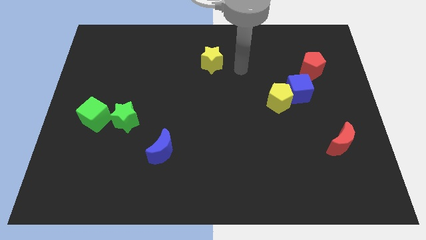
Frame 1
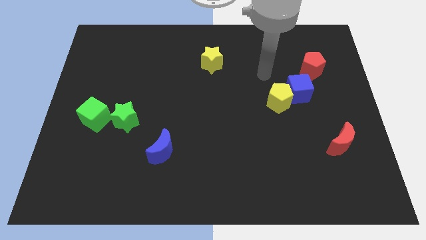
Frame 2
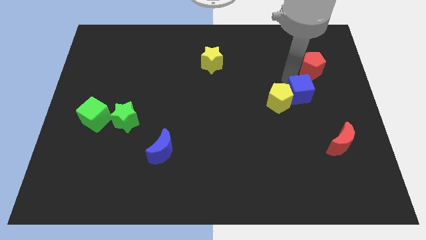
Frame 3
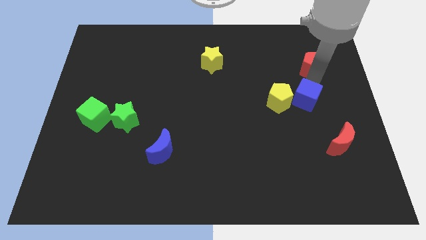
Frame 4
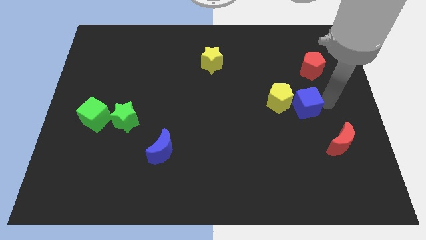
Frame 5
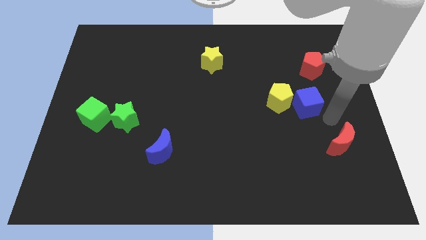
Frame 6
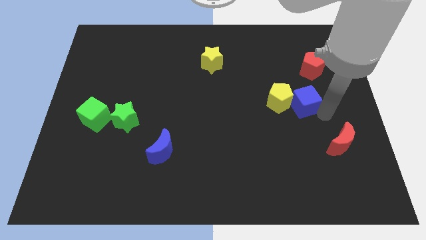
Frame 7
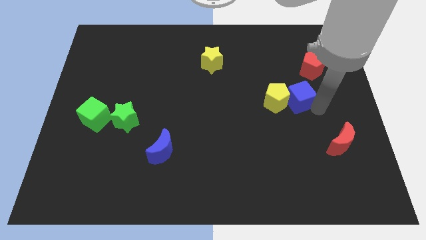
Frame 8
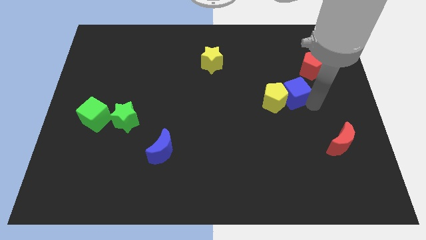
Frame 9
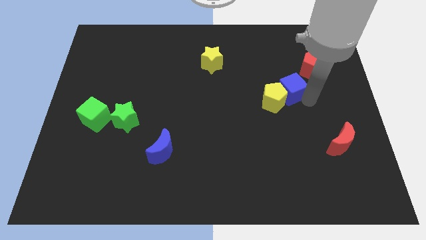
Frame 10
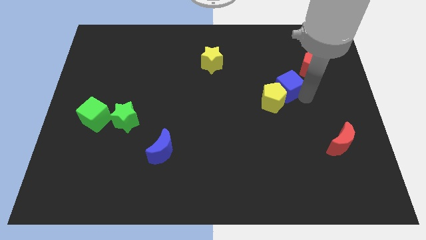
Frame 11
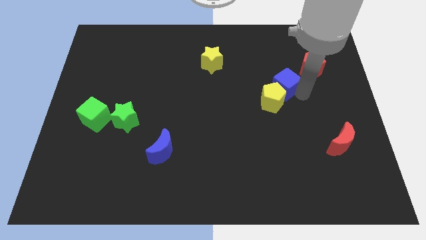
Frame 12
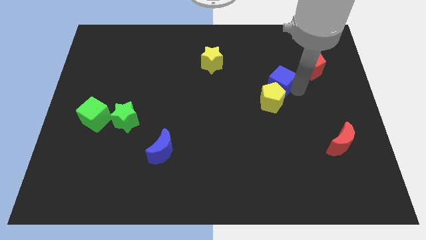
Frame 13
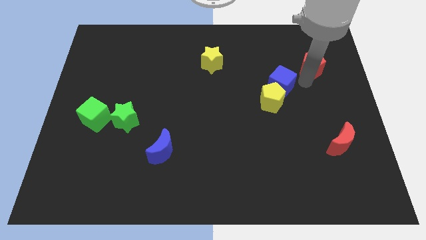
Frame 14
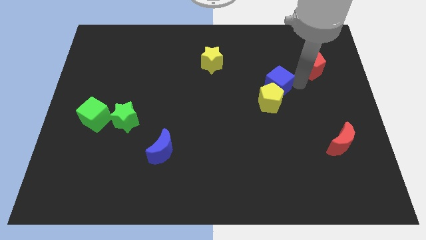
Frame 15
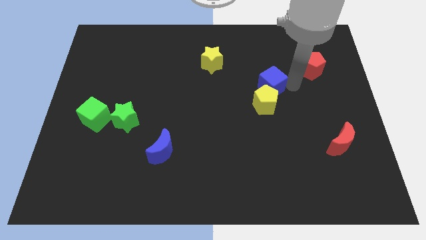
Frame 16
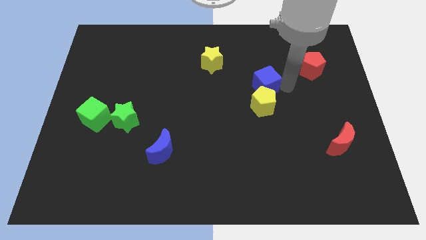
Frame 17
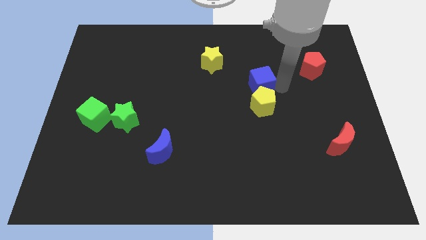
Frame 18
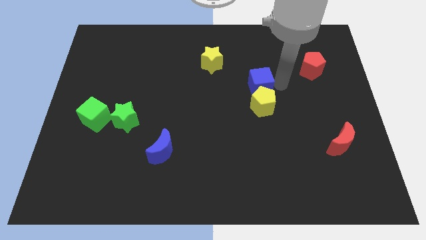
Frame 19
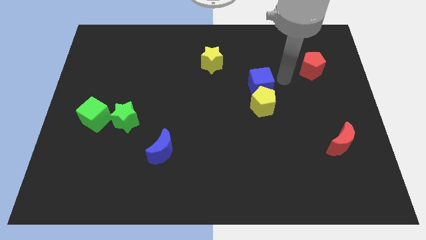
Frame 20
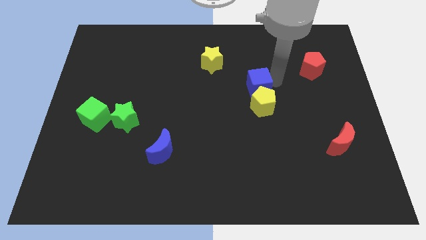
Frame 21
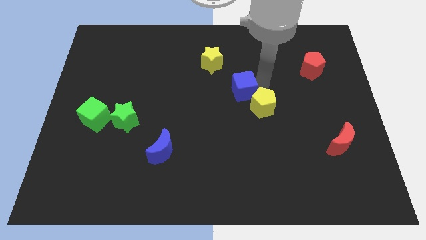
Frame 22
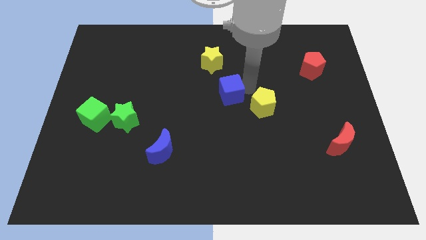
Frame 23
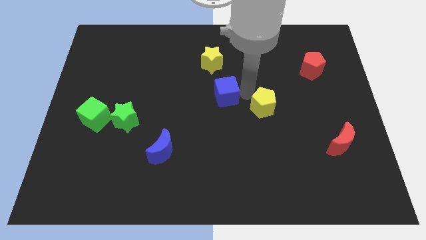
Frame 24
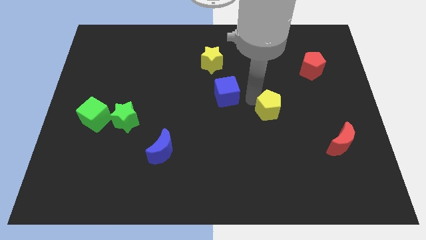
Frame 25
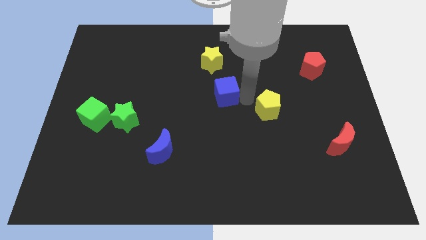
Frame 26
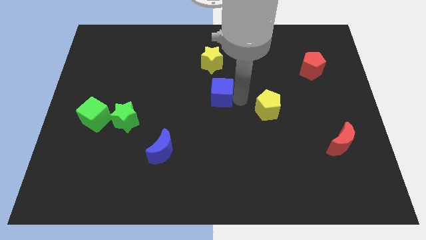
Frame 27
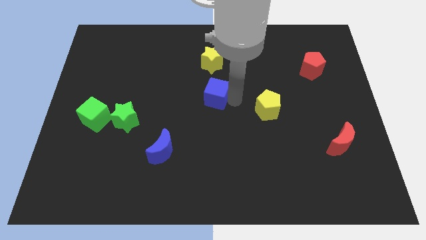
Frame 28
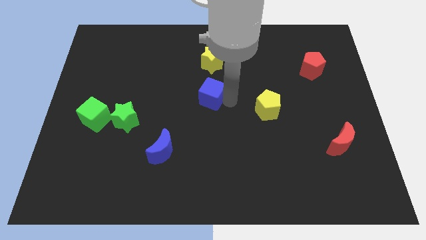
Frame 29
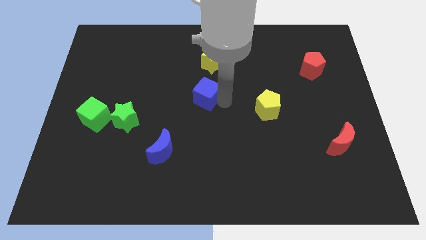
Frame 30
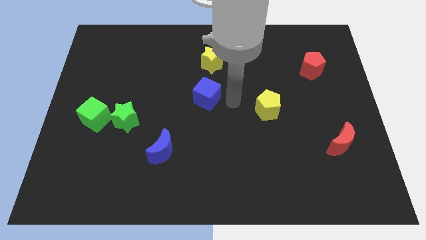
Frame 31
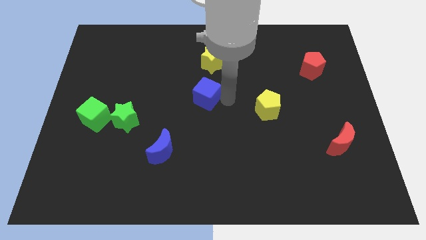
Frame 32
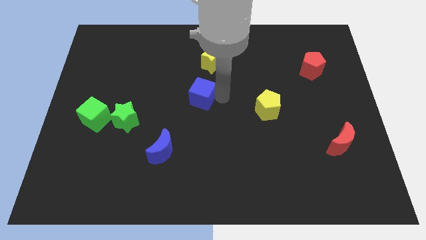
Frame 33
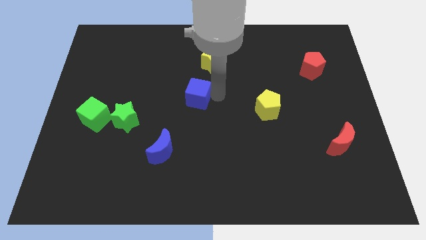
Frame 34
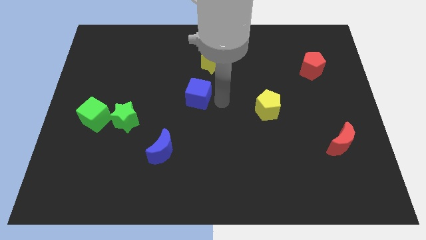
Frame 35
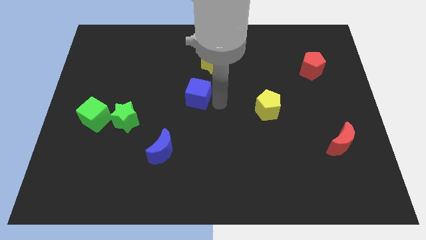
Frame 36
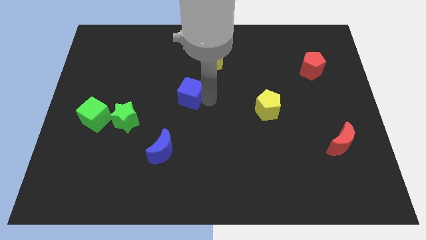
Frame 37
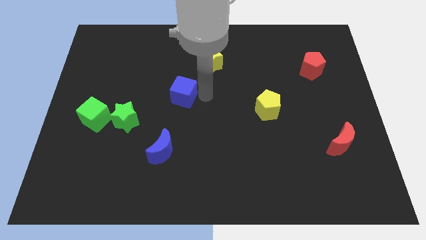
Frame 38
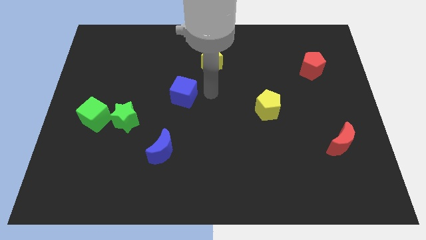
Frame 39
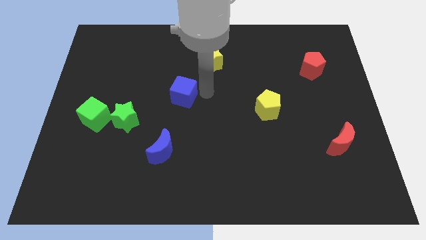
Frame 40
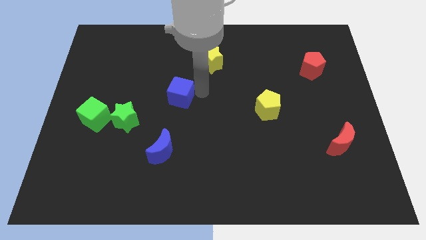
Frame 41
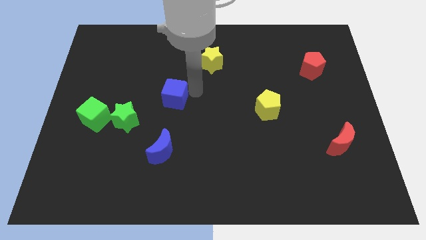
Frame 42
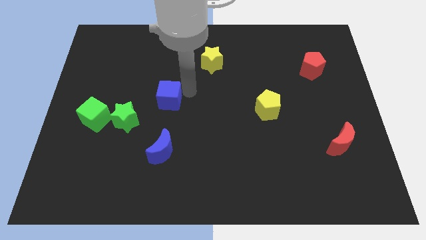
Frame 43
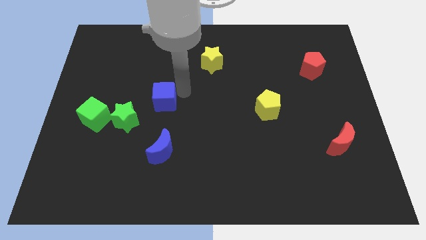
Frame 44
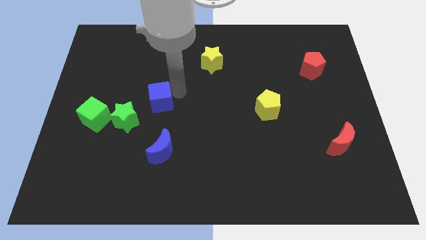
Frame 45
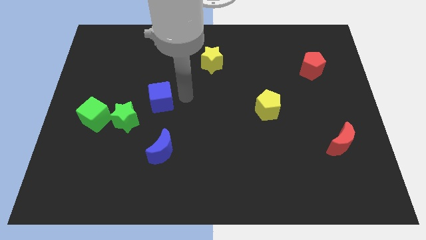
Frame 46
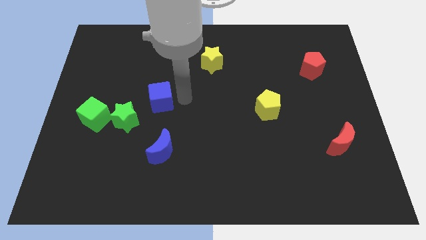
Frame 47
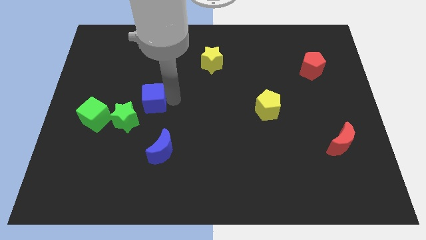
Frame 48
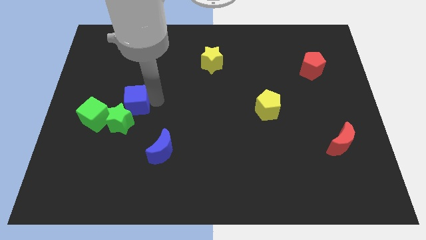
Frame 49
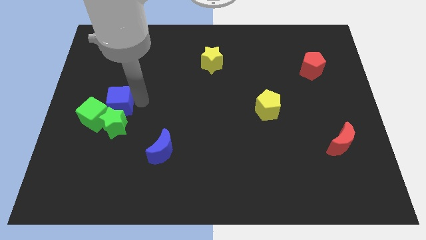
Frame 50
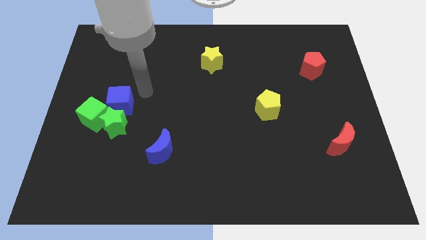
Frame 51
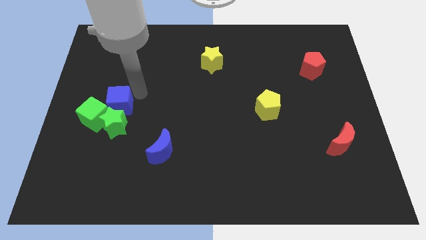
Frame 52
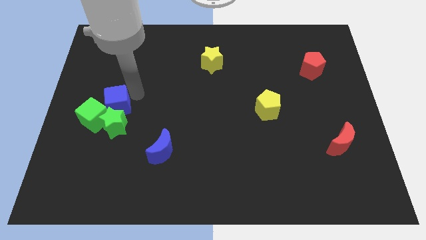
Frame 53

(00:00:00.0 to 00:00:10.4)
slide the blue cube to the green cube

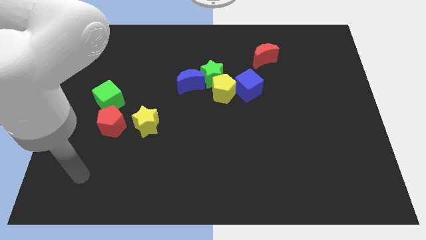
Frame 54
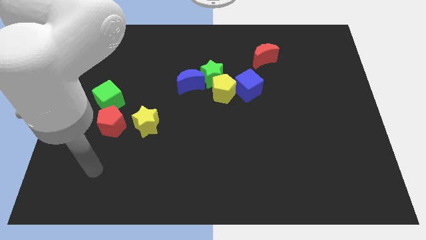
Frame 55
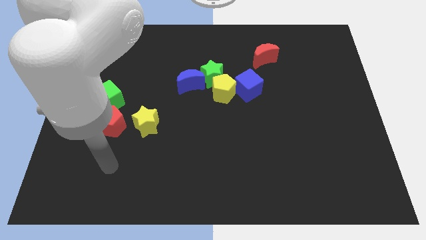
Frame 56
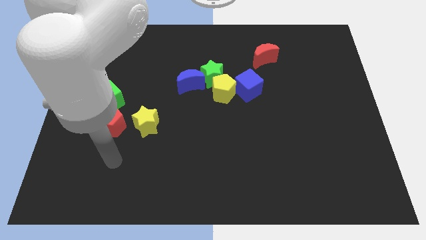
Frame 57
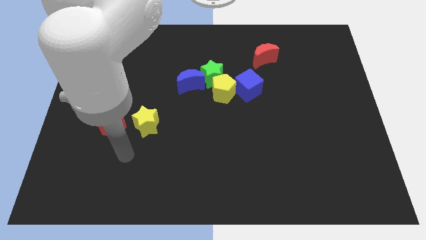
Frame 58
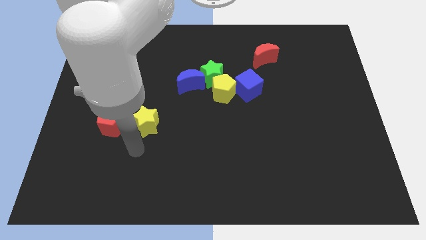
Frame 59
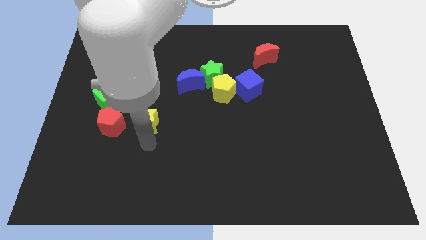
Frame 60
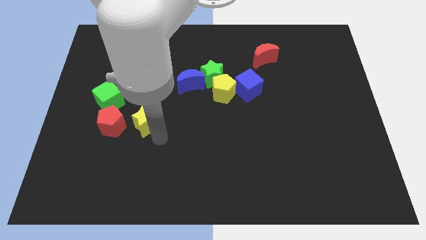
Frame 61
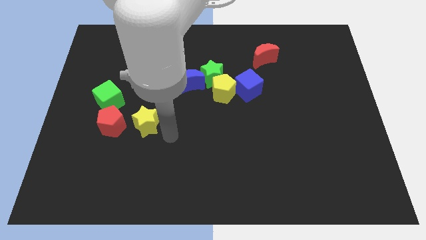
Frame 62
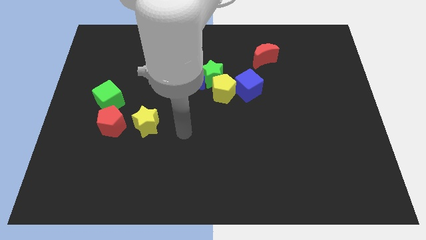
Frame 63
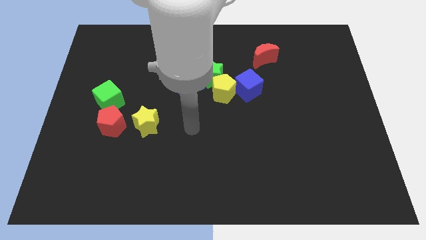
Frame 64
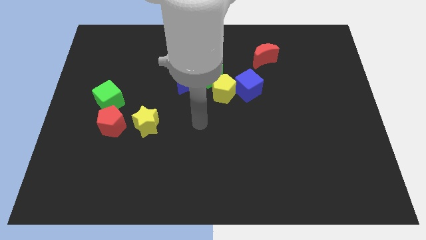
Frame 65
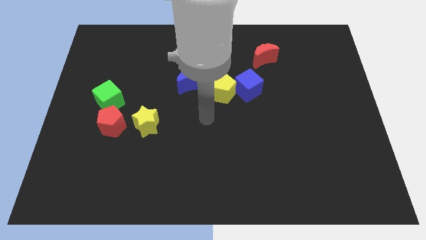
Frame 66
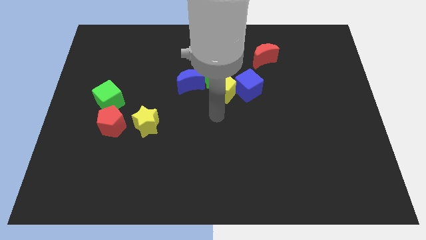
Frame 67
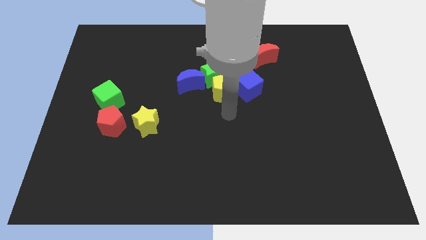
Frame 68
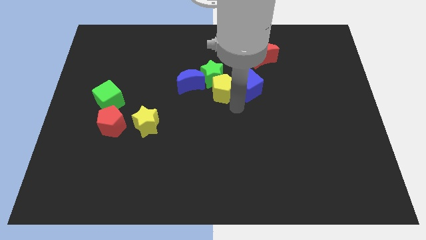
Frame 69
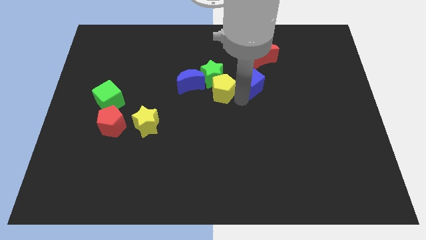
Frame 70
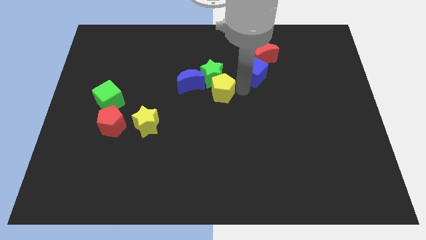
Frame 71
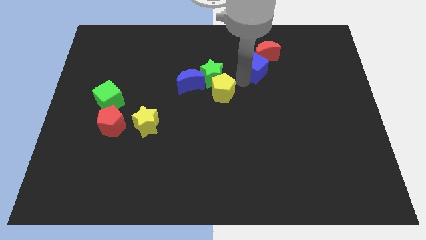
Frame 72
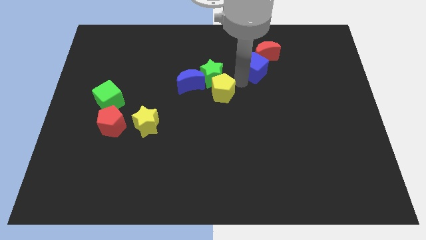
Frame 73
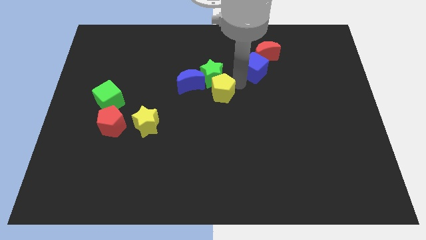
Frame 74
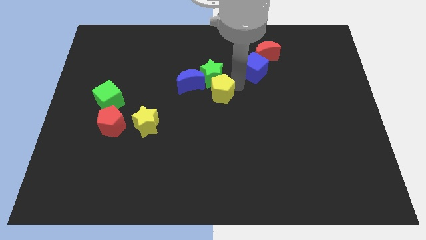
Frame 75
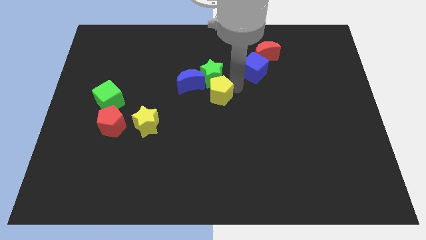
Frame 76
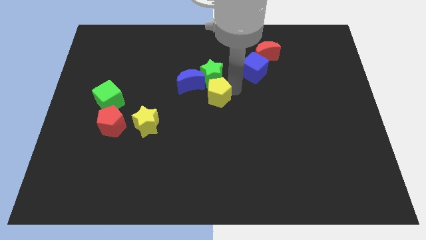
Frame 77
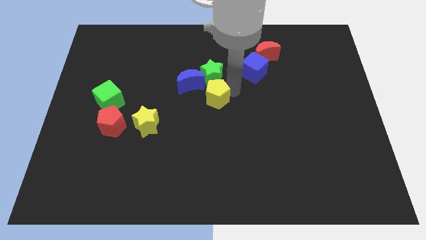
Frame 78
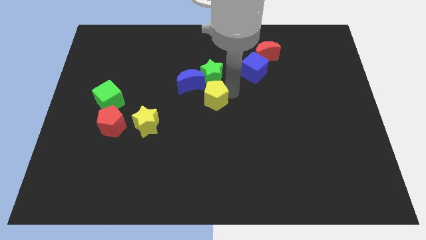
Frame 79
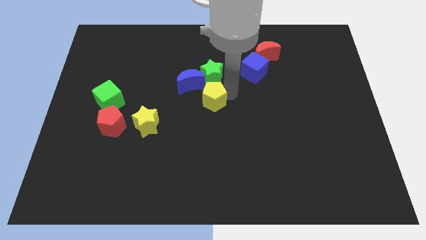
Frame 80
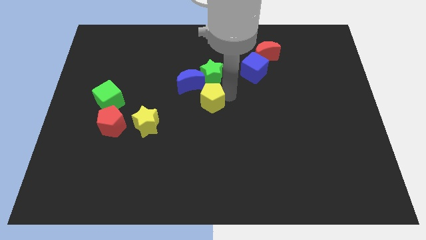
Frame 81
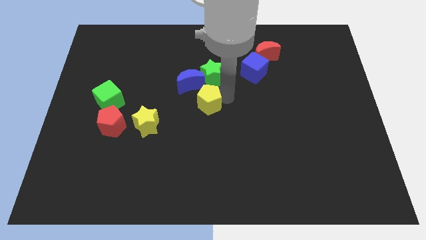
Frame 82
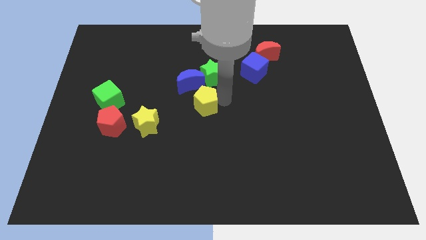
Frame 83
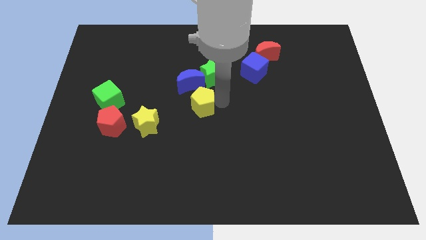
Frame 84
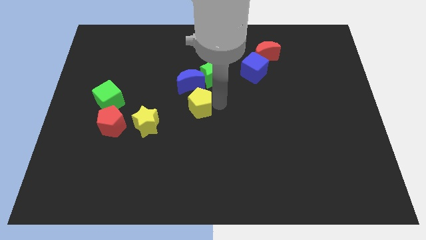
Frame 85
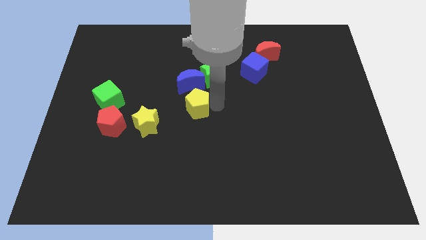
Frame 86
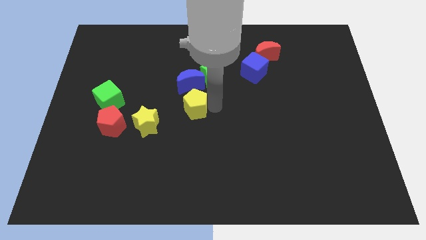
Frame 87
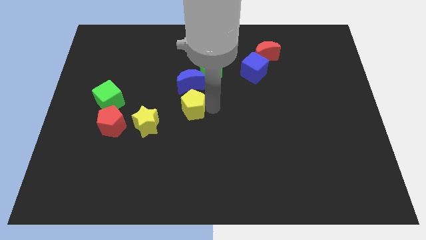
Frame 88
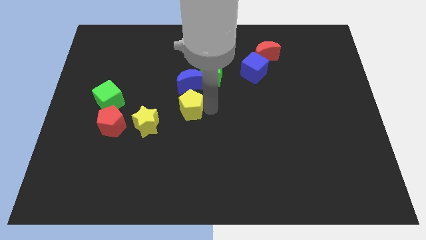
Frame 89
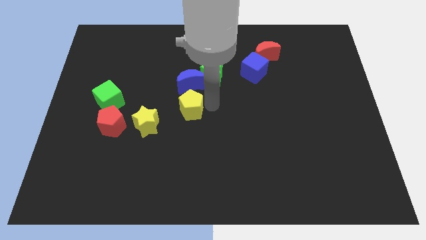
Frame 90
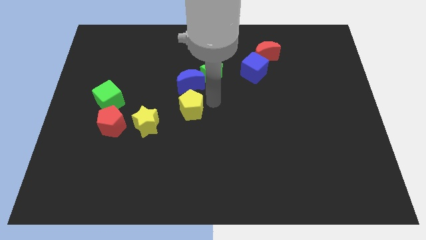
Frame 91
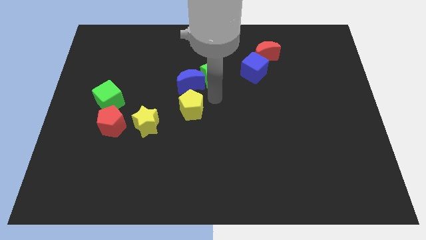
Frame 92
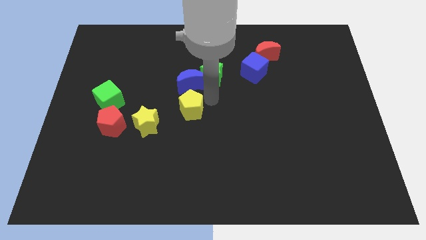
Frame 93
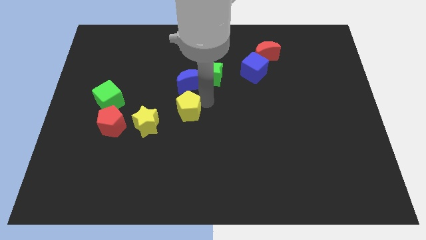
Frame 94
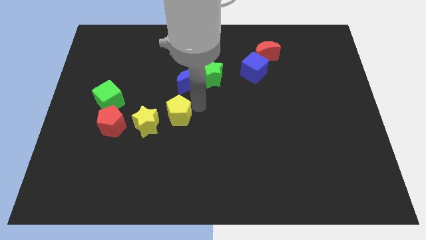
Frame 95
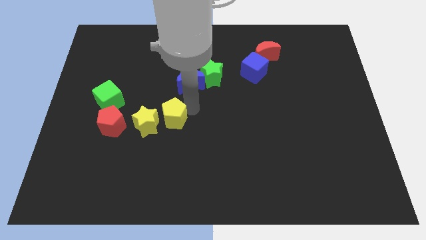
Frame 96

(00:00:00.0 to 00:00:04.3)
move the yellow pentagon next to the yellow star
